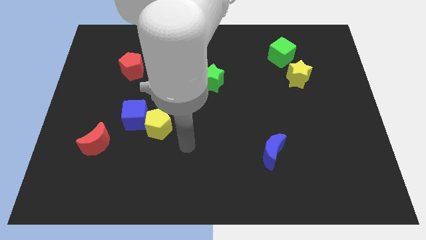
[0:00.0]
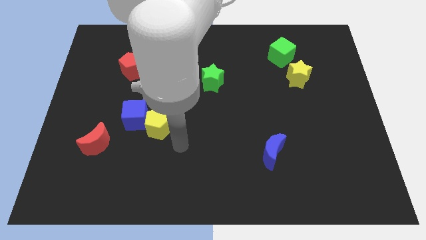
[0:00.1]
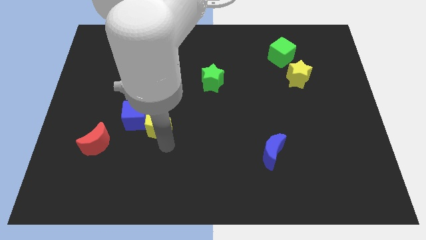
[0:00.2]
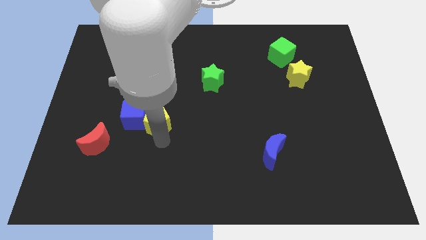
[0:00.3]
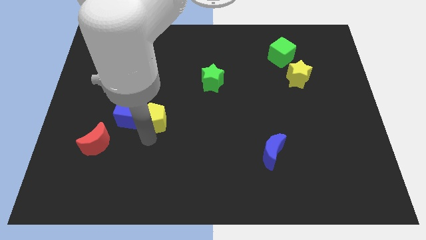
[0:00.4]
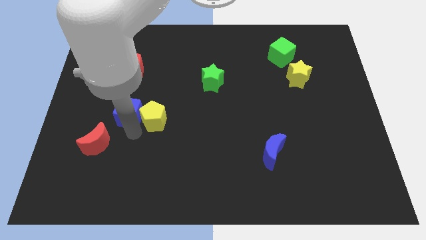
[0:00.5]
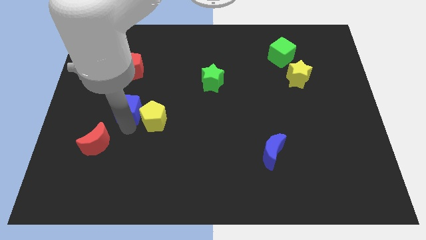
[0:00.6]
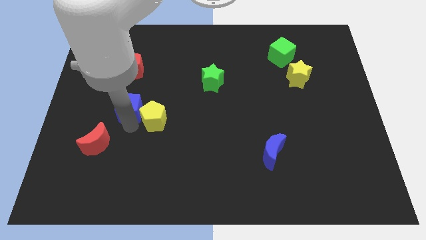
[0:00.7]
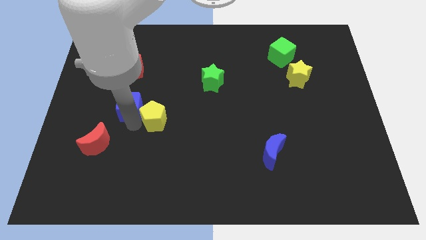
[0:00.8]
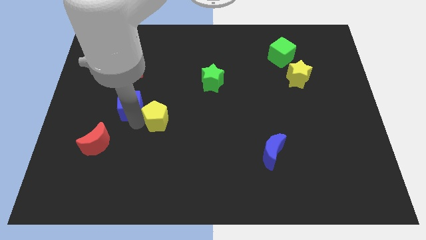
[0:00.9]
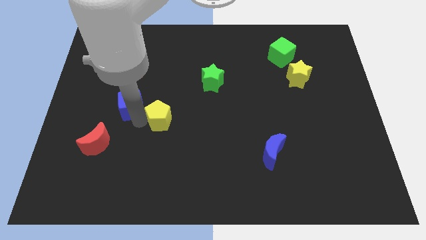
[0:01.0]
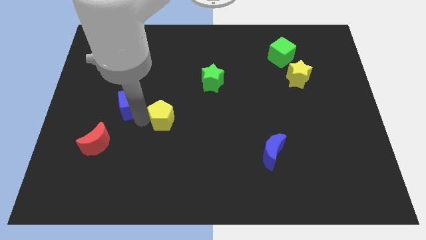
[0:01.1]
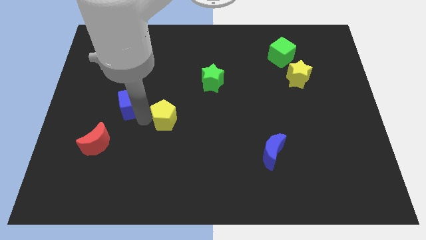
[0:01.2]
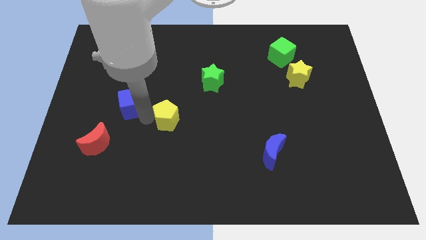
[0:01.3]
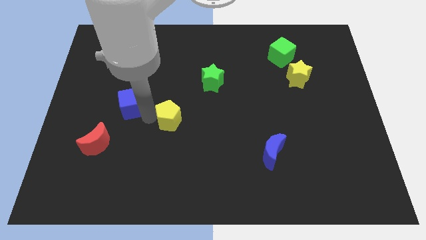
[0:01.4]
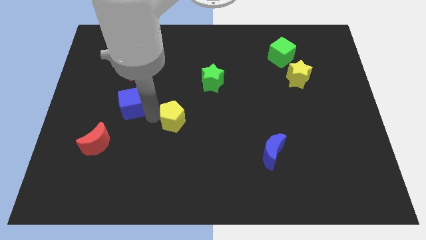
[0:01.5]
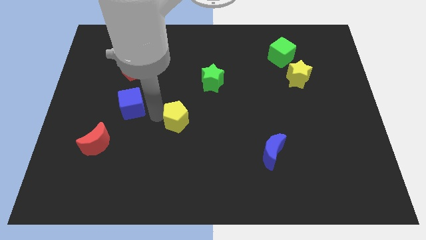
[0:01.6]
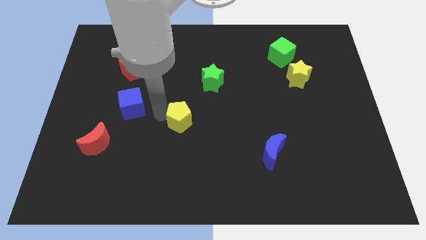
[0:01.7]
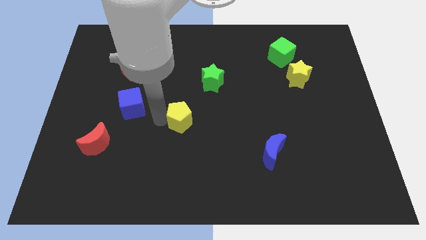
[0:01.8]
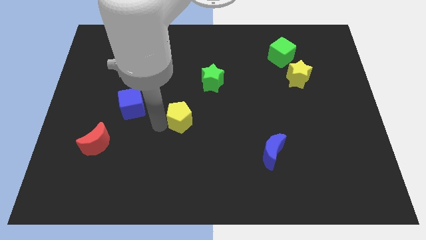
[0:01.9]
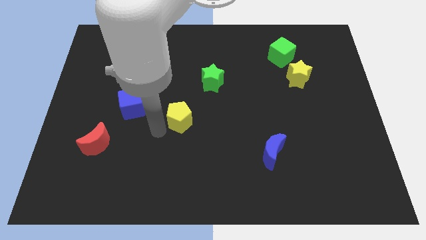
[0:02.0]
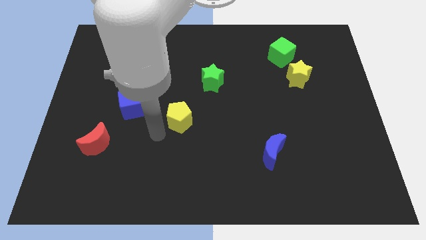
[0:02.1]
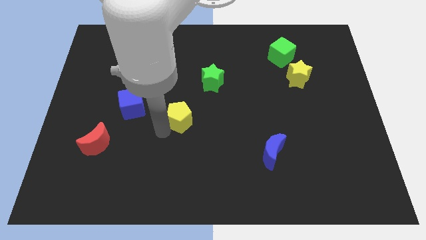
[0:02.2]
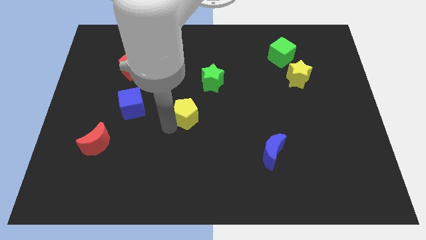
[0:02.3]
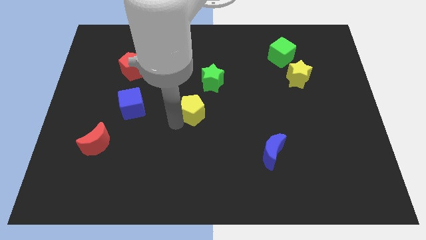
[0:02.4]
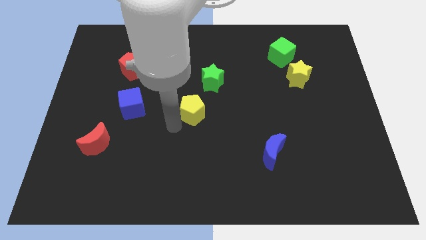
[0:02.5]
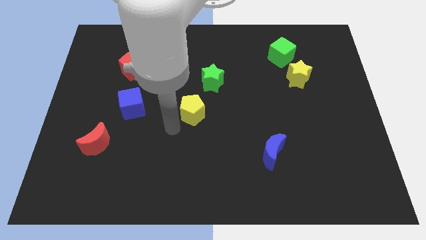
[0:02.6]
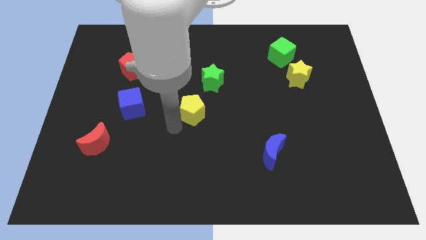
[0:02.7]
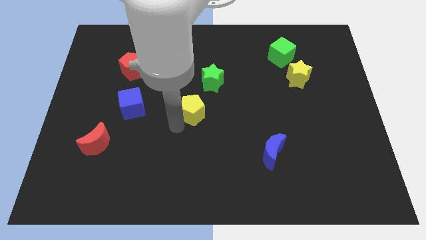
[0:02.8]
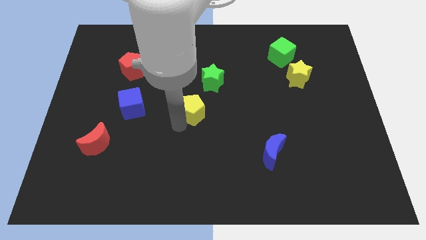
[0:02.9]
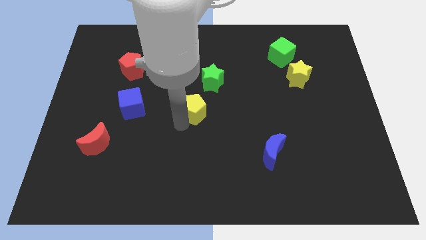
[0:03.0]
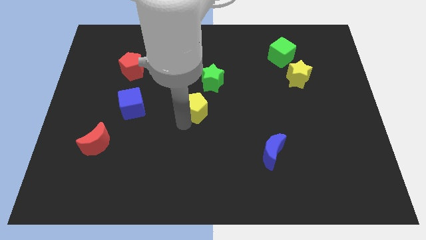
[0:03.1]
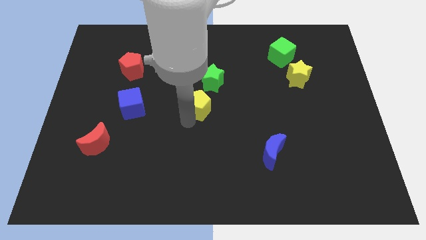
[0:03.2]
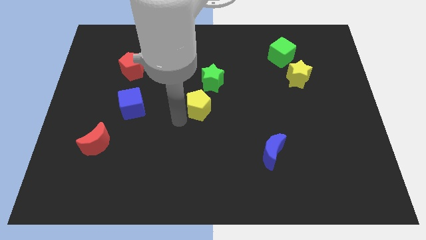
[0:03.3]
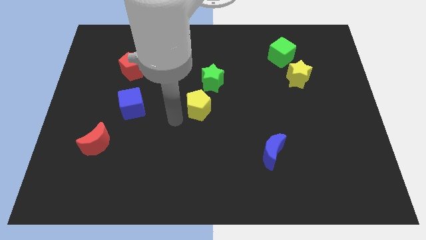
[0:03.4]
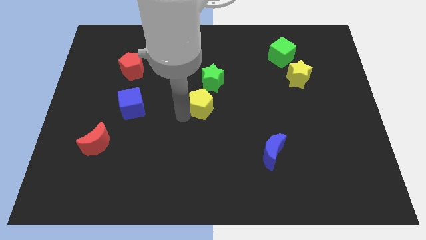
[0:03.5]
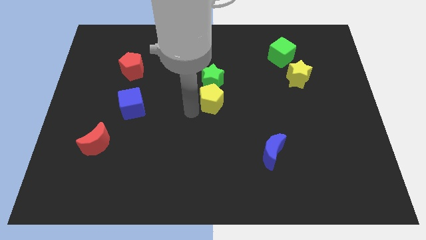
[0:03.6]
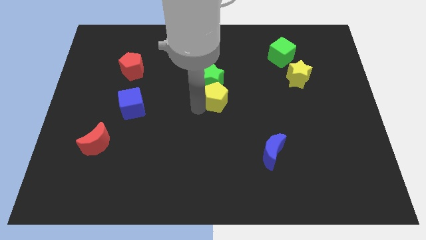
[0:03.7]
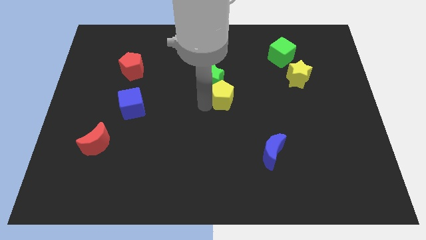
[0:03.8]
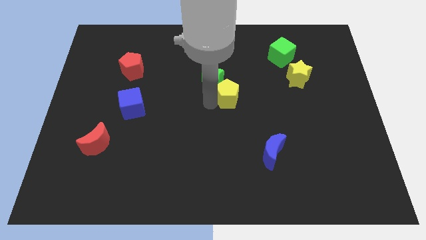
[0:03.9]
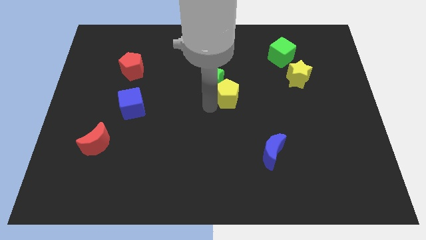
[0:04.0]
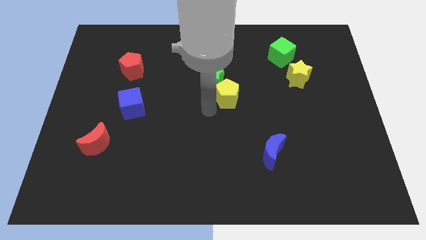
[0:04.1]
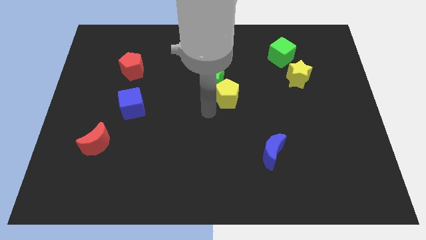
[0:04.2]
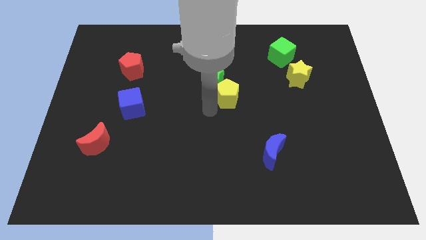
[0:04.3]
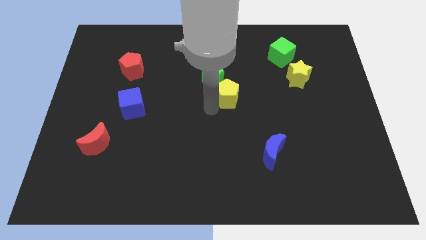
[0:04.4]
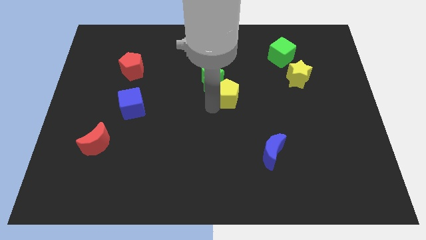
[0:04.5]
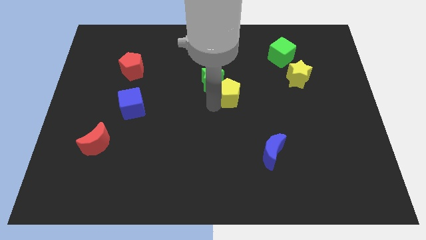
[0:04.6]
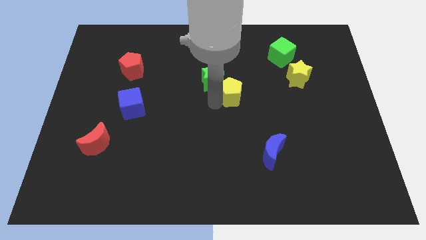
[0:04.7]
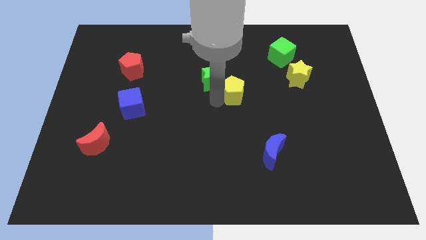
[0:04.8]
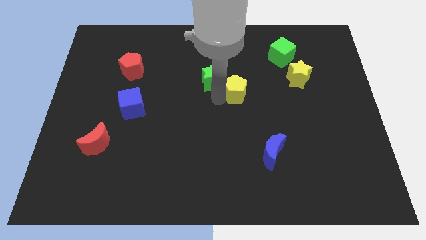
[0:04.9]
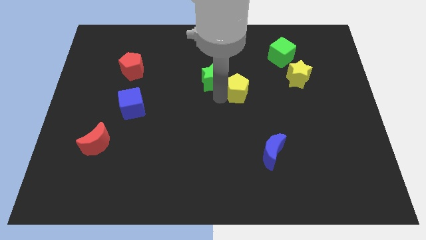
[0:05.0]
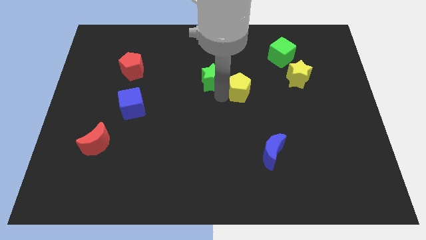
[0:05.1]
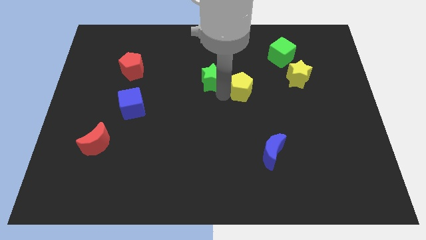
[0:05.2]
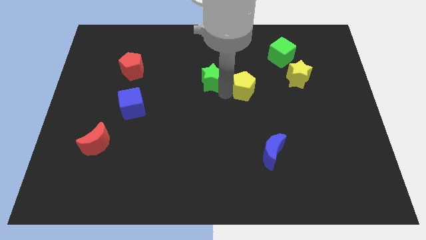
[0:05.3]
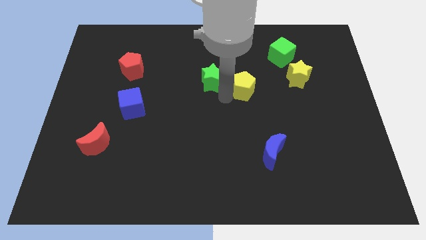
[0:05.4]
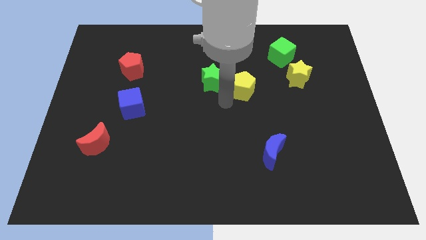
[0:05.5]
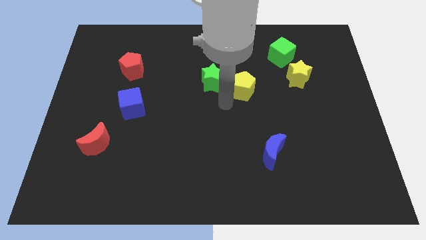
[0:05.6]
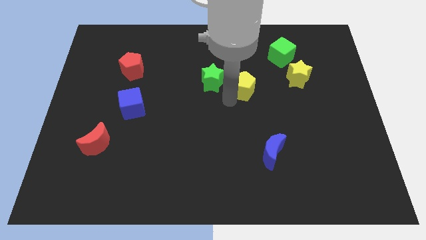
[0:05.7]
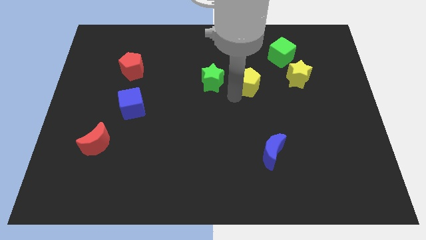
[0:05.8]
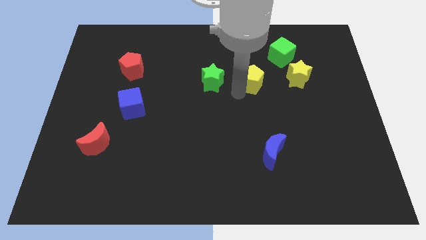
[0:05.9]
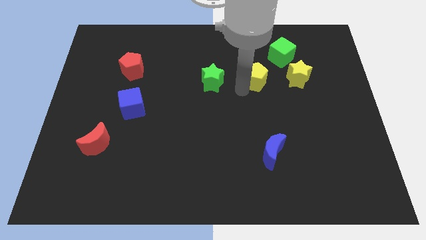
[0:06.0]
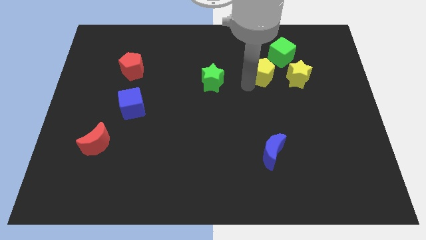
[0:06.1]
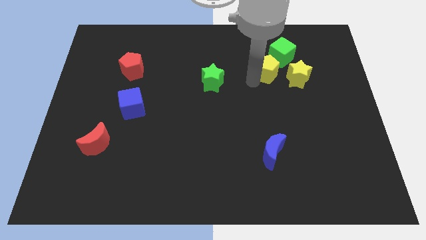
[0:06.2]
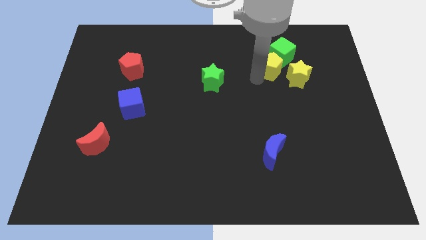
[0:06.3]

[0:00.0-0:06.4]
push the yellow pentagon close to the green cube
